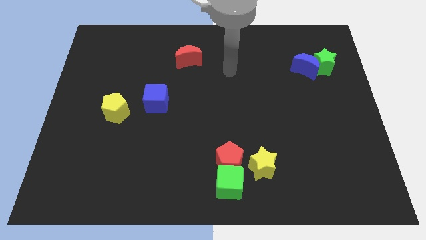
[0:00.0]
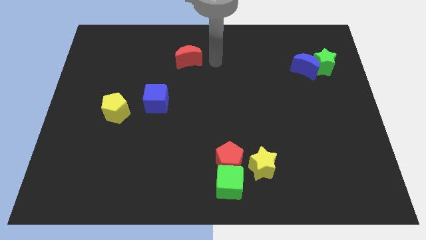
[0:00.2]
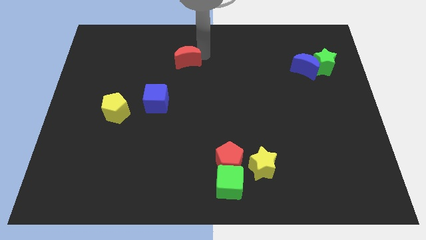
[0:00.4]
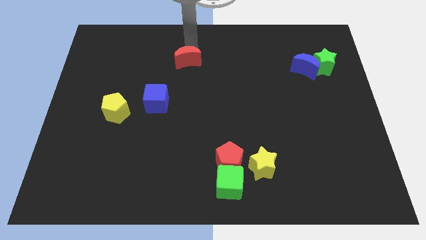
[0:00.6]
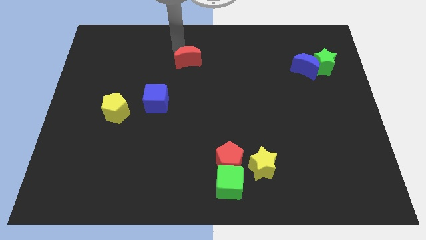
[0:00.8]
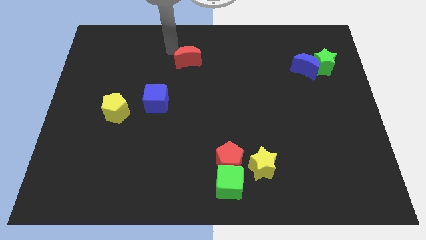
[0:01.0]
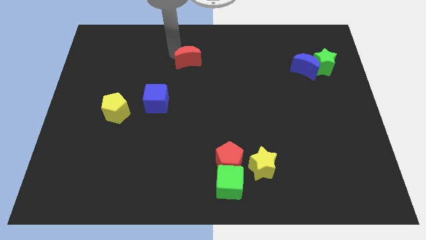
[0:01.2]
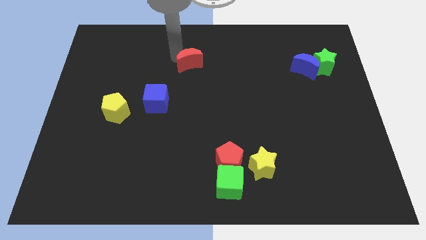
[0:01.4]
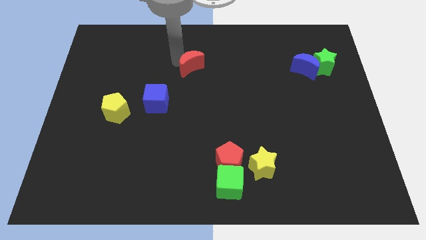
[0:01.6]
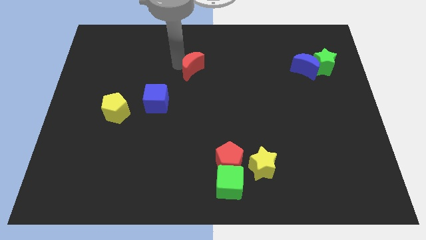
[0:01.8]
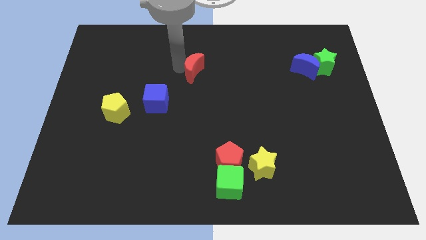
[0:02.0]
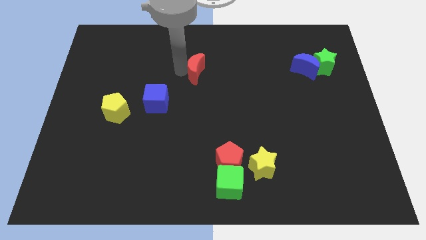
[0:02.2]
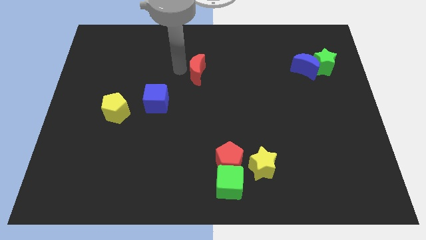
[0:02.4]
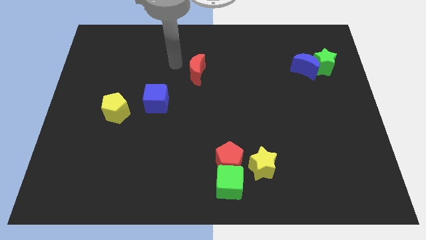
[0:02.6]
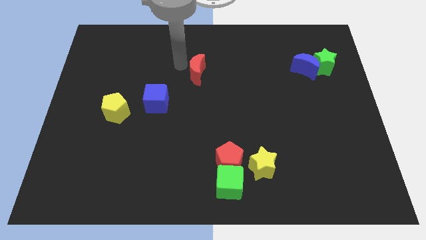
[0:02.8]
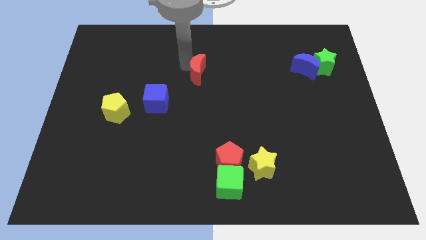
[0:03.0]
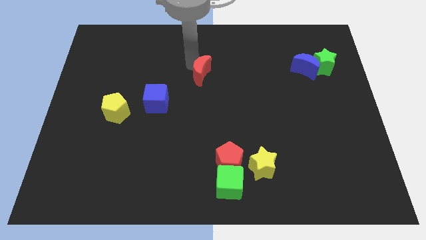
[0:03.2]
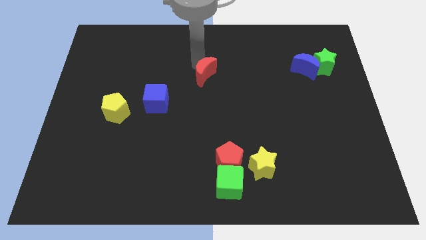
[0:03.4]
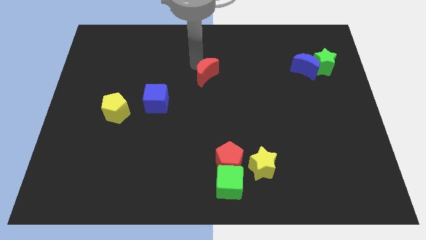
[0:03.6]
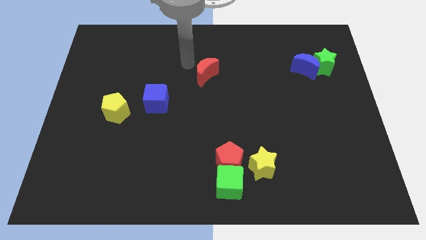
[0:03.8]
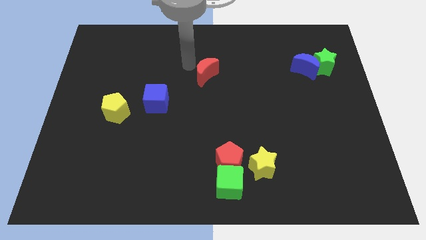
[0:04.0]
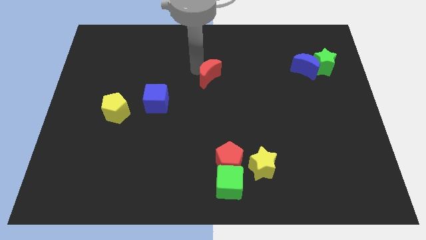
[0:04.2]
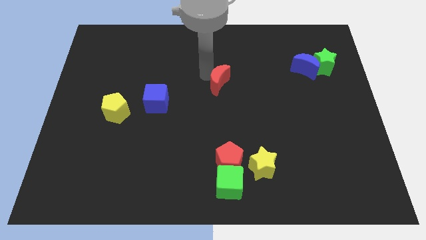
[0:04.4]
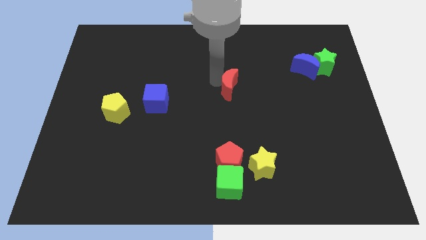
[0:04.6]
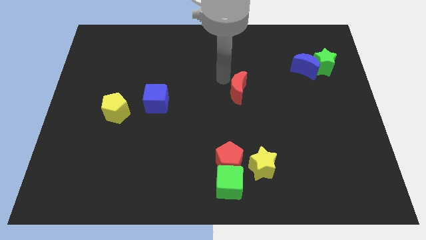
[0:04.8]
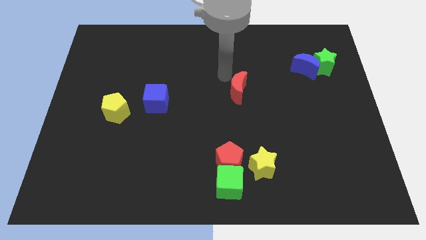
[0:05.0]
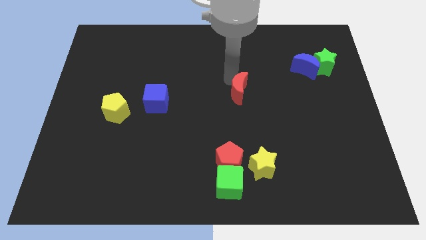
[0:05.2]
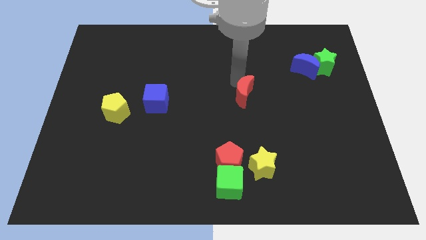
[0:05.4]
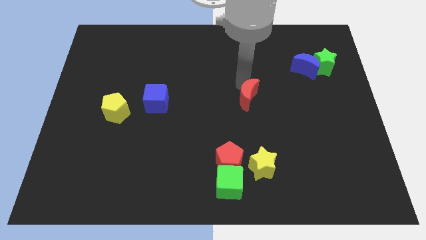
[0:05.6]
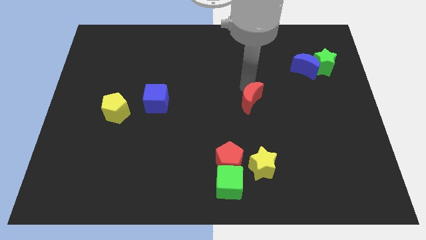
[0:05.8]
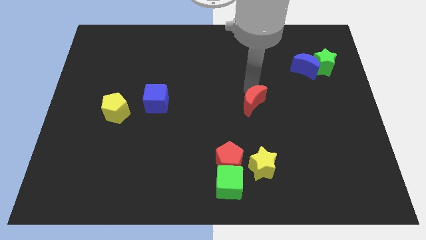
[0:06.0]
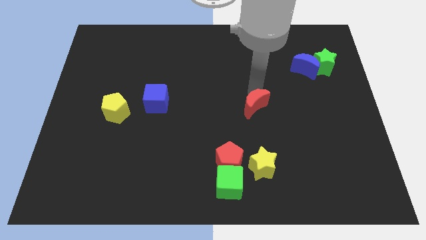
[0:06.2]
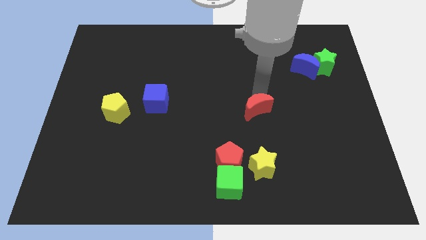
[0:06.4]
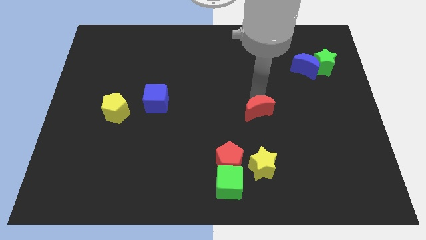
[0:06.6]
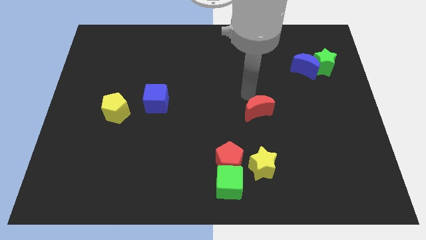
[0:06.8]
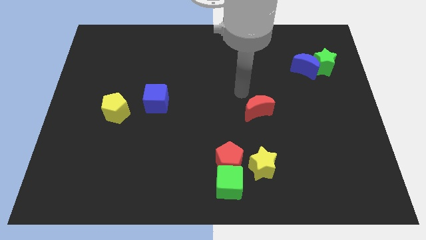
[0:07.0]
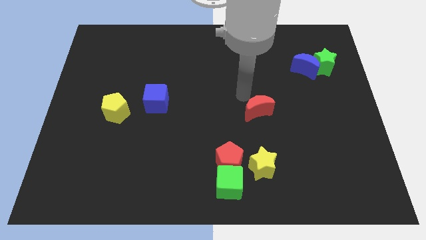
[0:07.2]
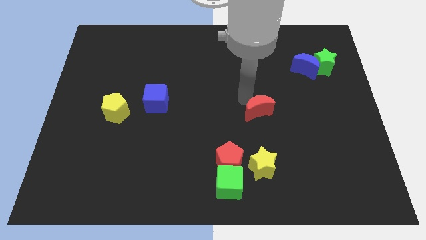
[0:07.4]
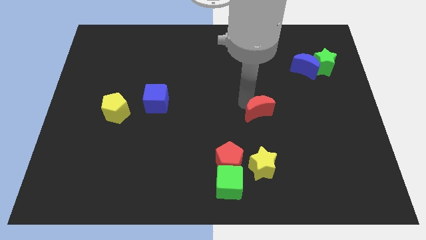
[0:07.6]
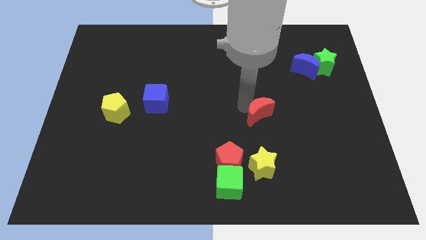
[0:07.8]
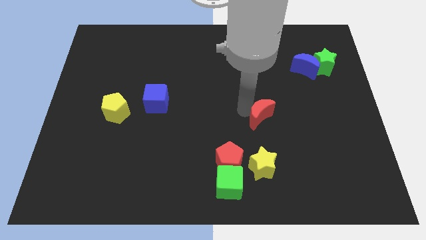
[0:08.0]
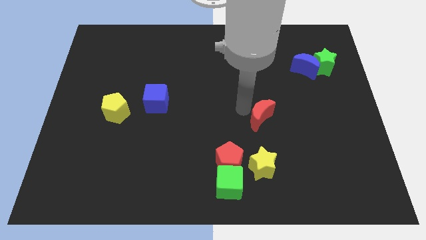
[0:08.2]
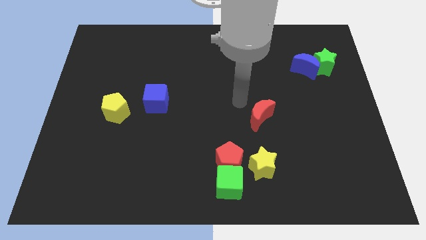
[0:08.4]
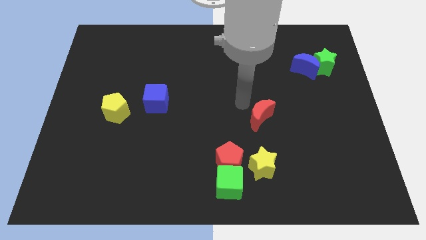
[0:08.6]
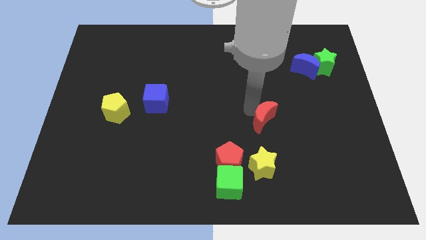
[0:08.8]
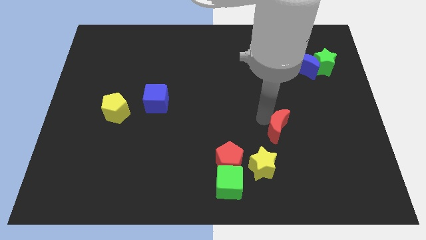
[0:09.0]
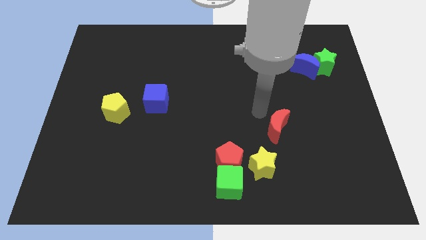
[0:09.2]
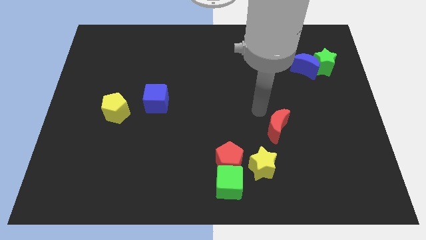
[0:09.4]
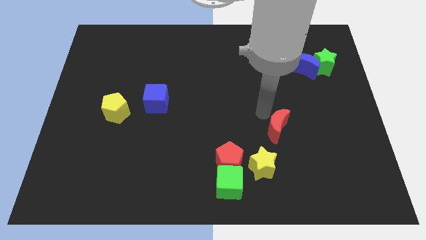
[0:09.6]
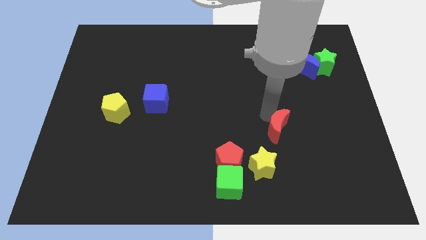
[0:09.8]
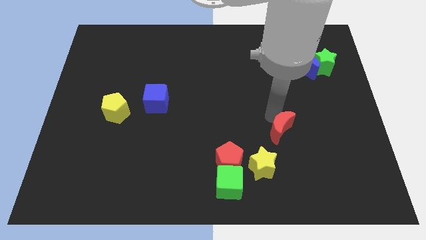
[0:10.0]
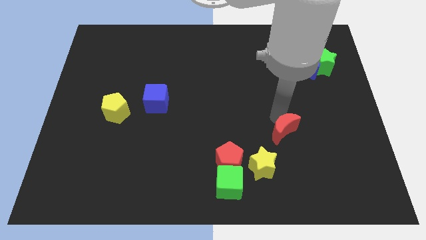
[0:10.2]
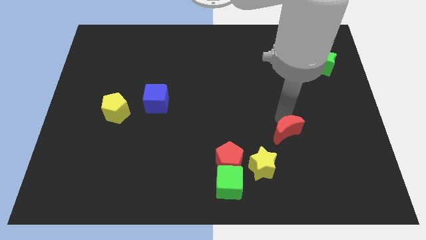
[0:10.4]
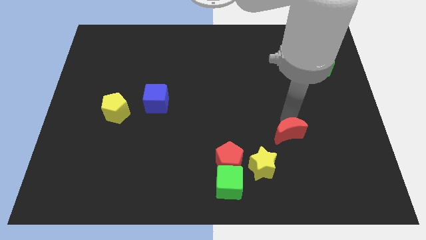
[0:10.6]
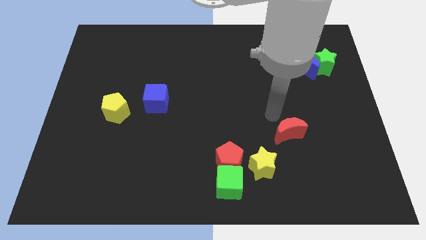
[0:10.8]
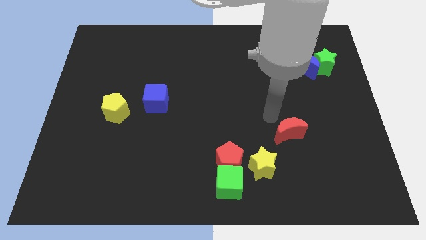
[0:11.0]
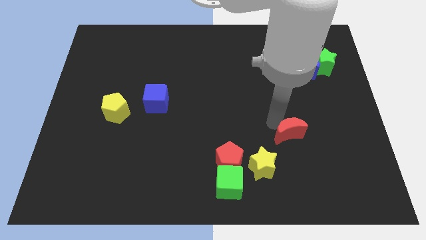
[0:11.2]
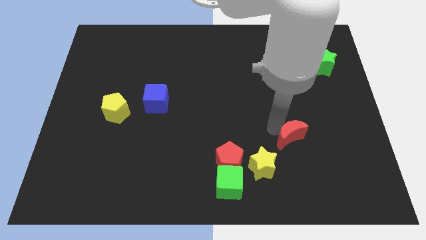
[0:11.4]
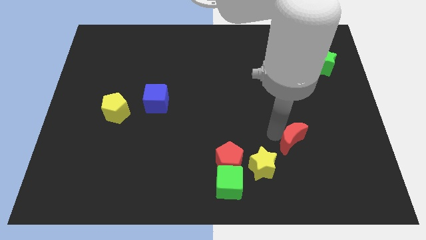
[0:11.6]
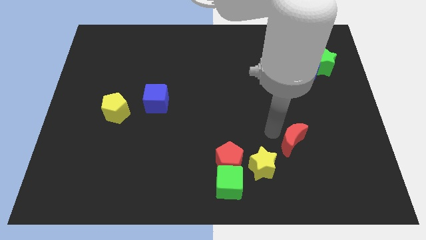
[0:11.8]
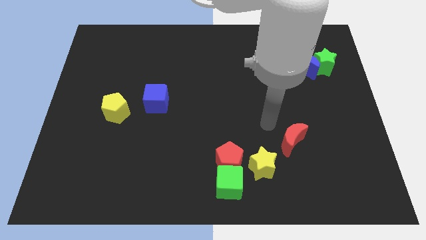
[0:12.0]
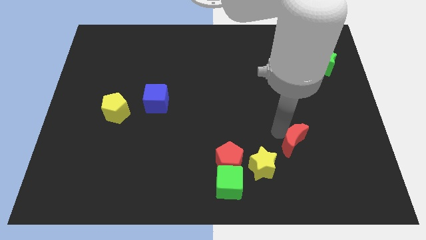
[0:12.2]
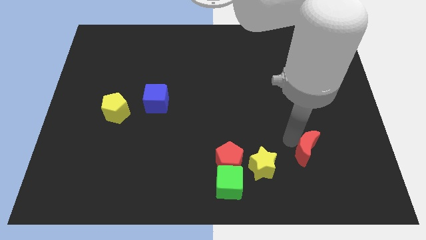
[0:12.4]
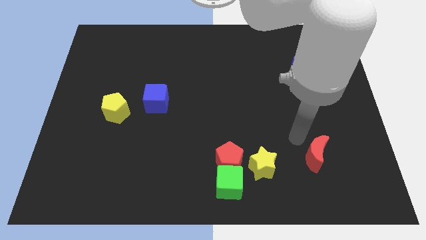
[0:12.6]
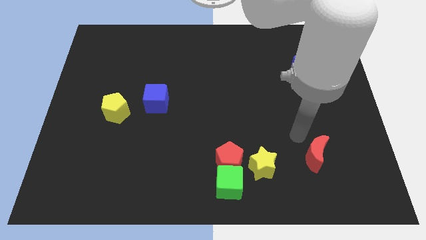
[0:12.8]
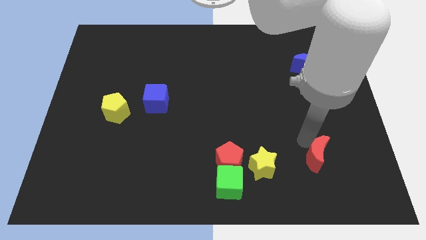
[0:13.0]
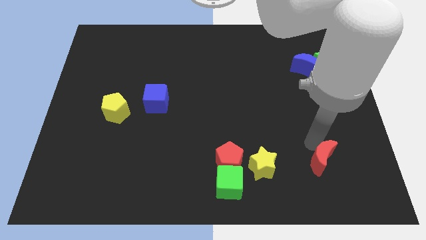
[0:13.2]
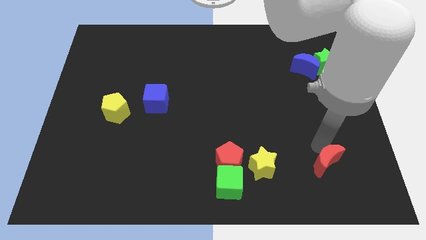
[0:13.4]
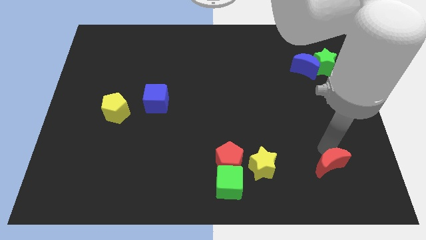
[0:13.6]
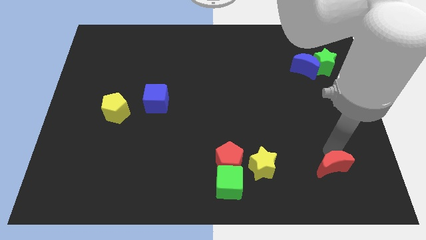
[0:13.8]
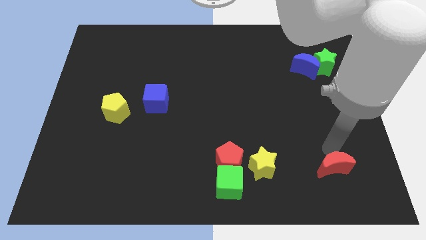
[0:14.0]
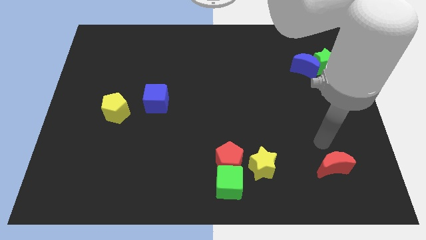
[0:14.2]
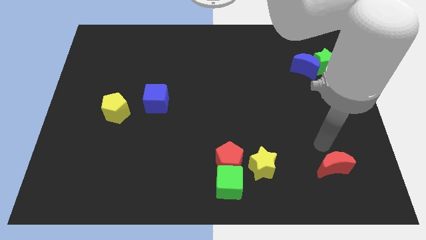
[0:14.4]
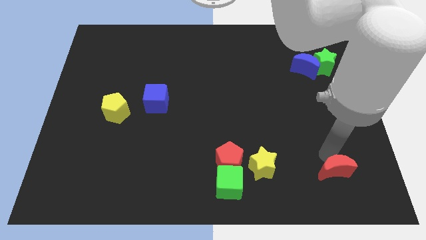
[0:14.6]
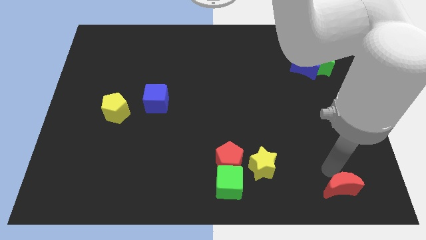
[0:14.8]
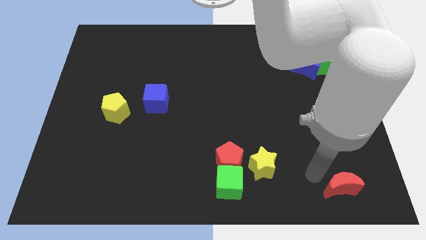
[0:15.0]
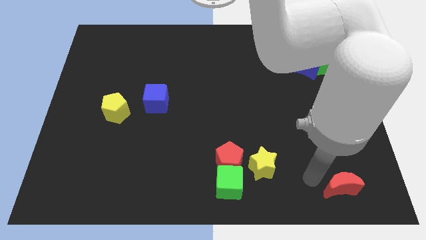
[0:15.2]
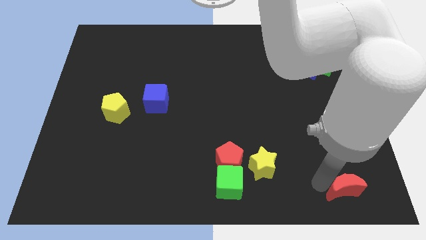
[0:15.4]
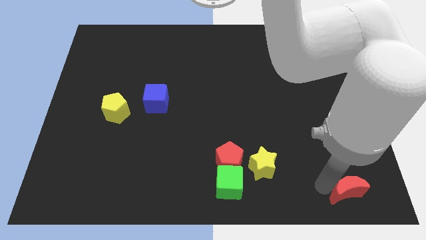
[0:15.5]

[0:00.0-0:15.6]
move the red moon to the bottom right of the board
